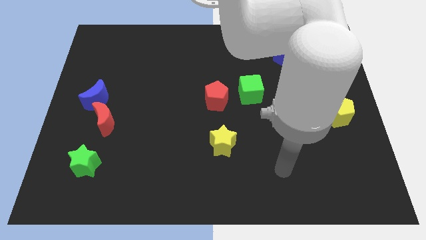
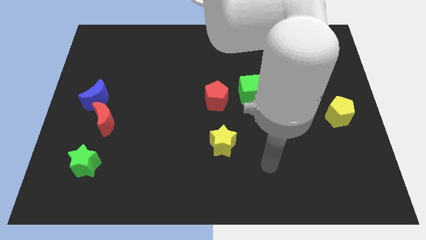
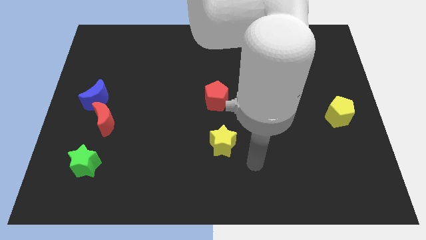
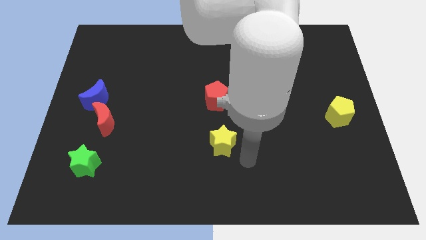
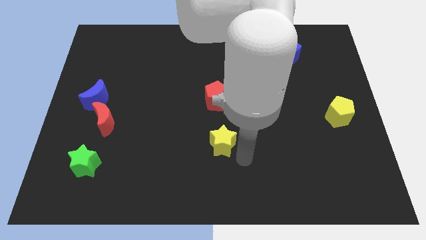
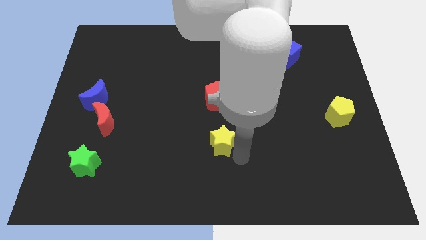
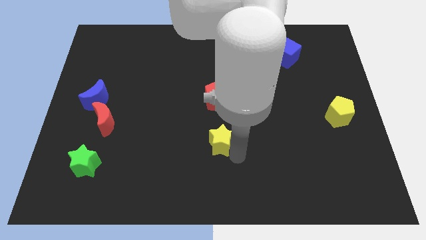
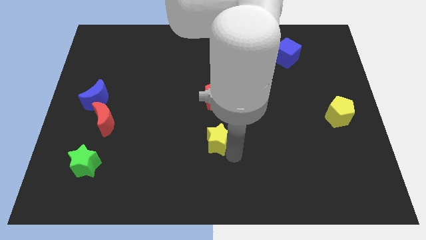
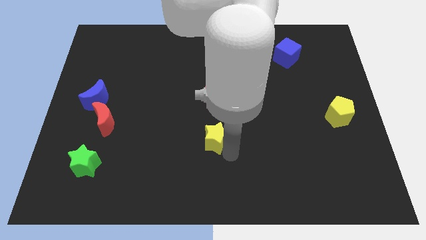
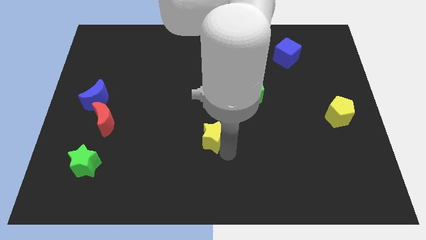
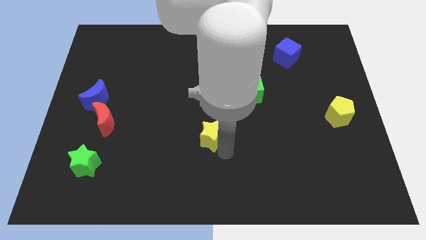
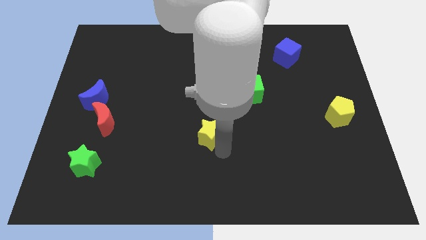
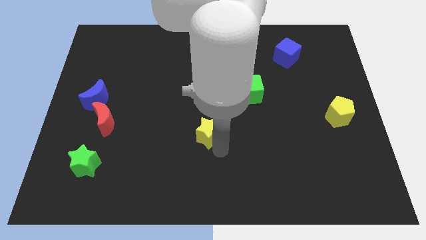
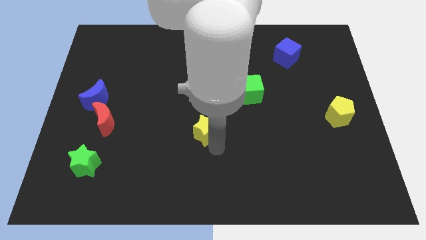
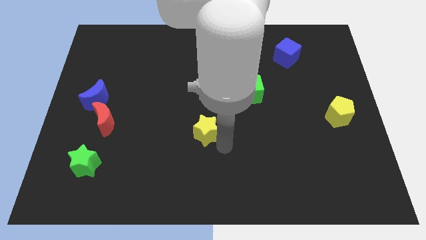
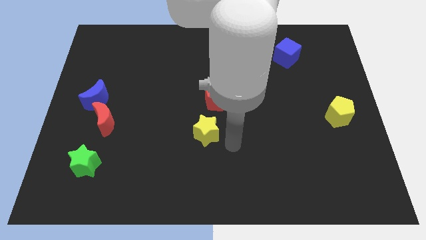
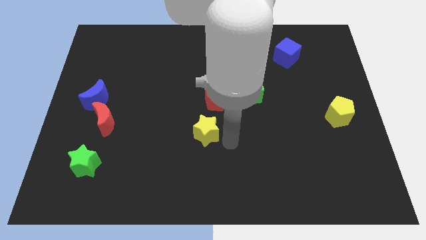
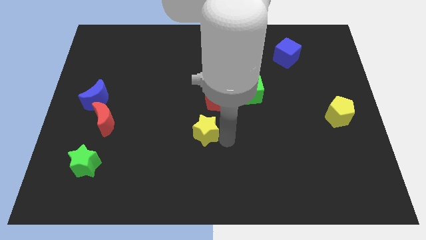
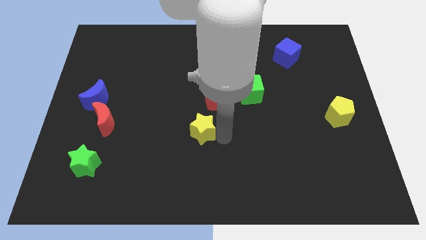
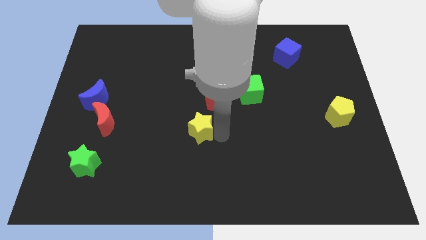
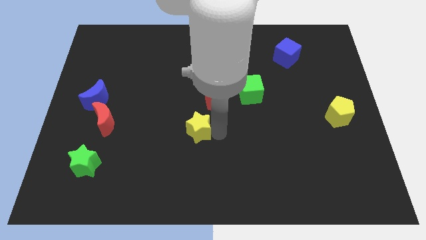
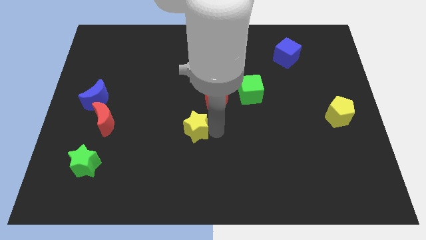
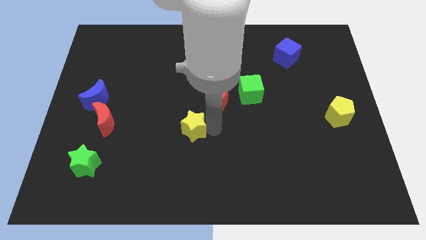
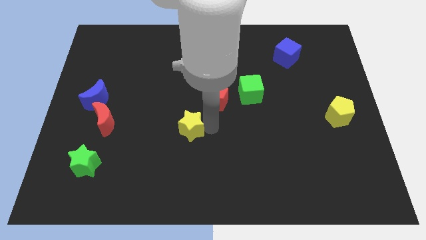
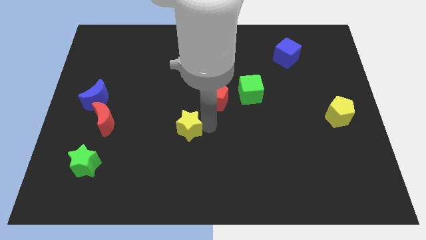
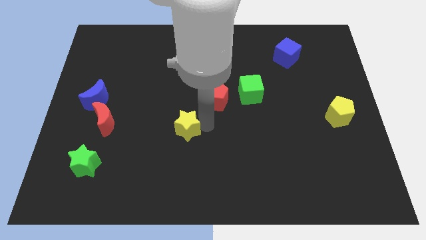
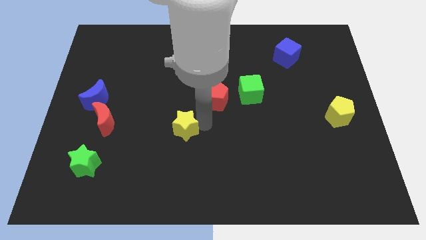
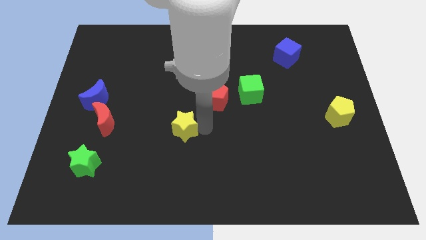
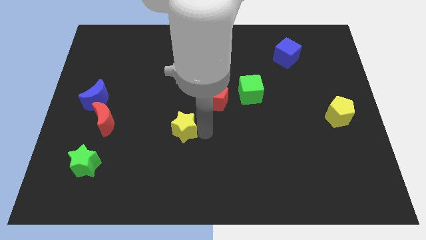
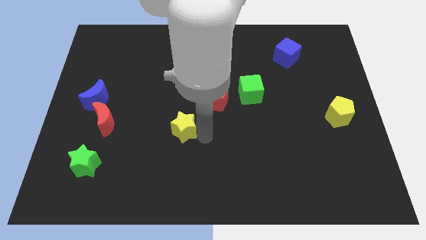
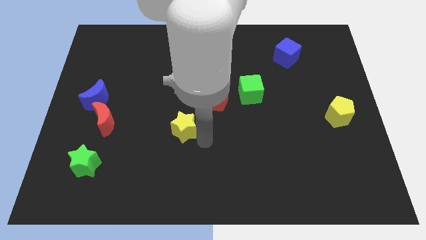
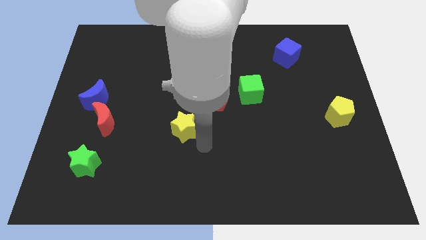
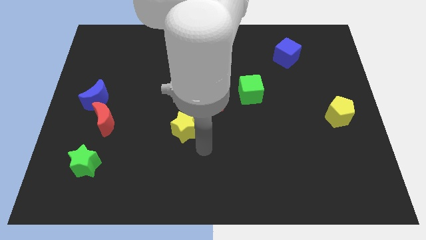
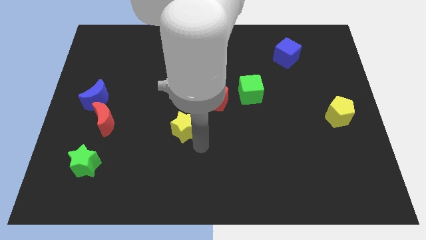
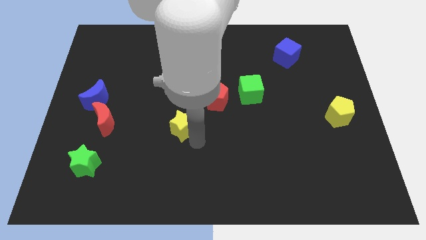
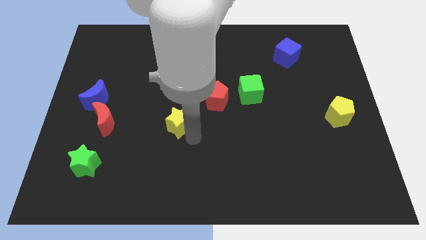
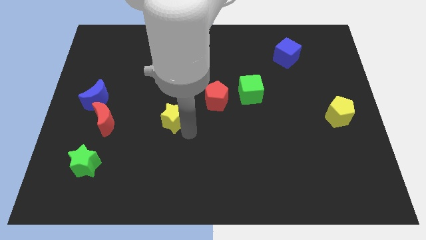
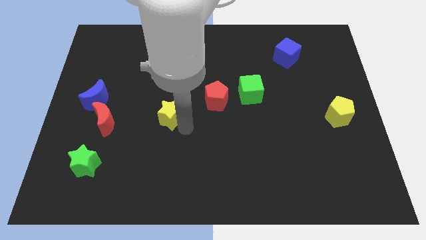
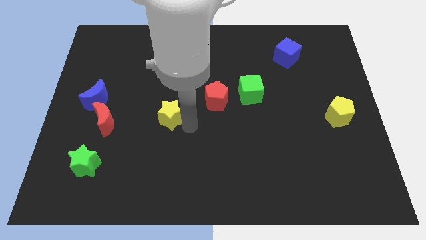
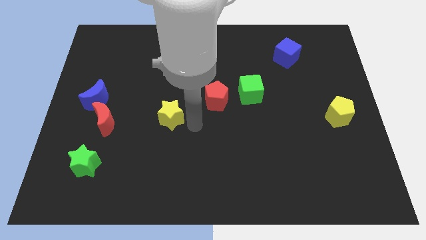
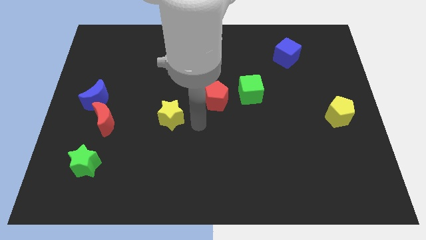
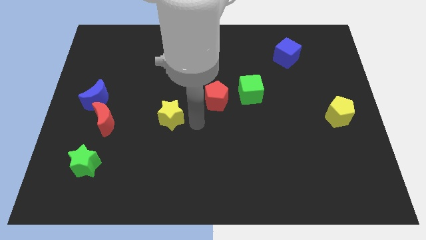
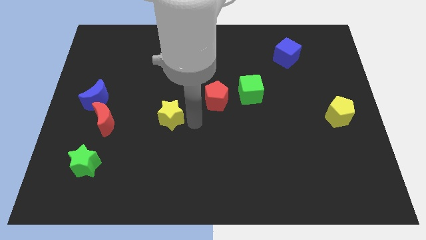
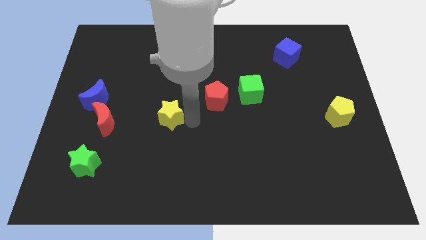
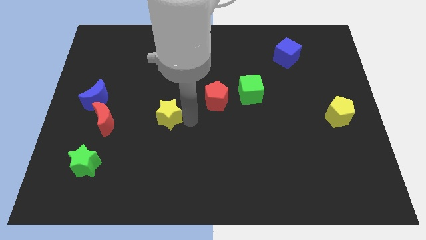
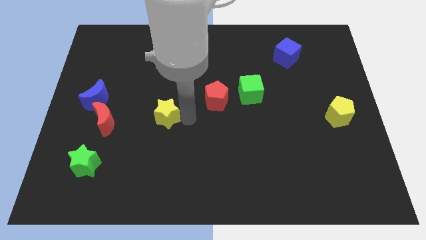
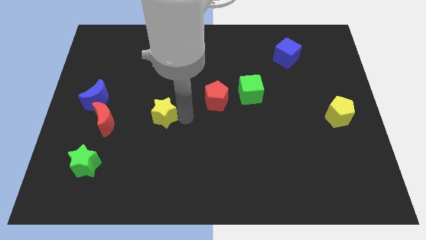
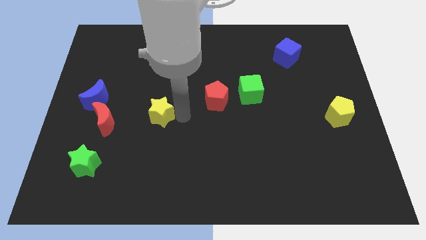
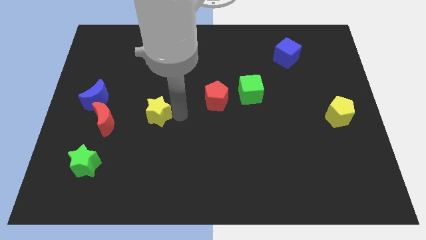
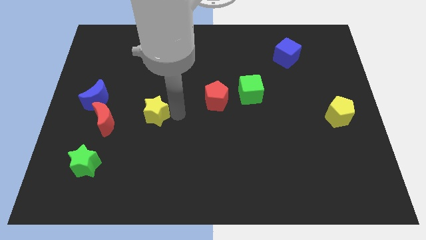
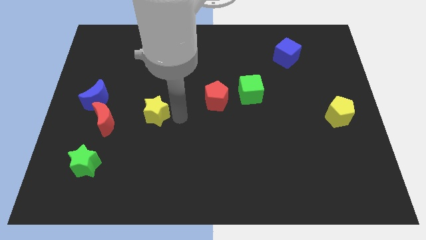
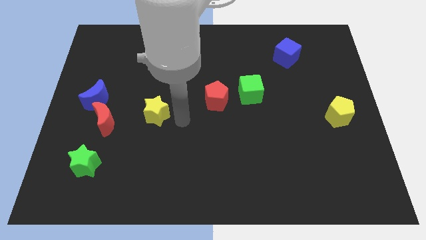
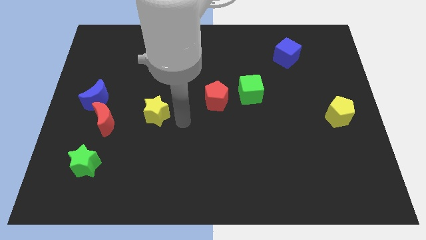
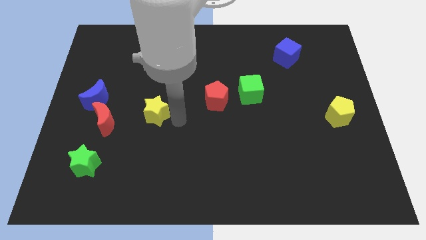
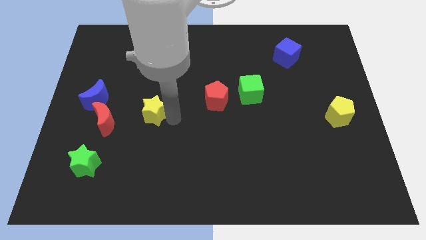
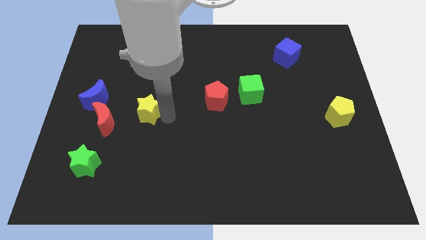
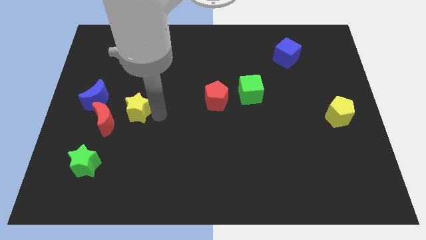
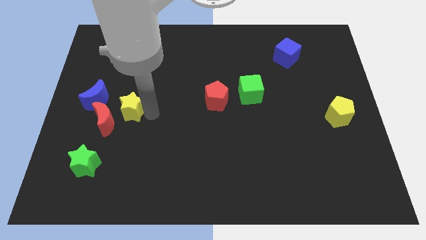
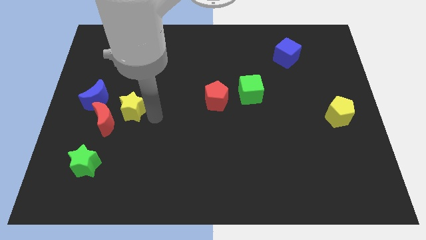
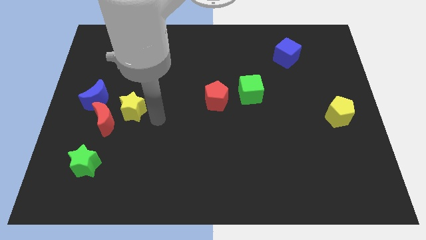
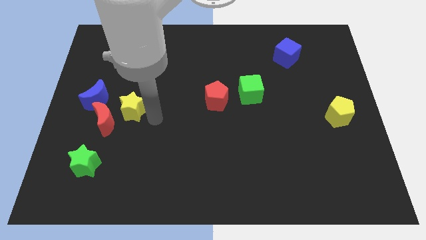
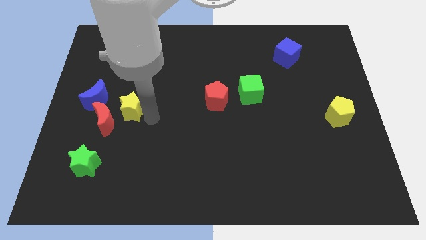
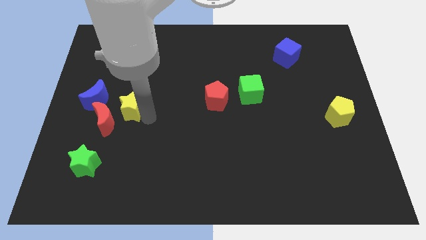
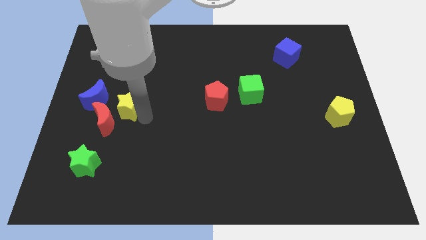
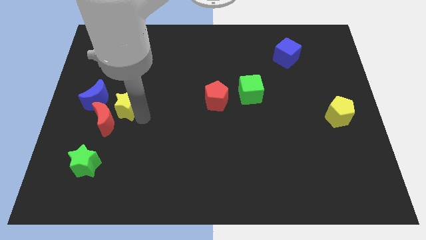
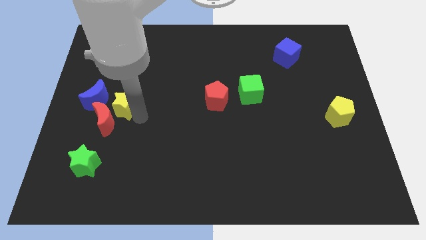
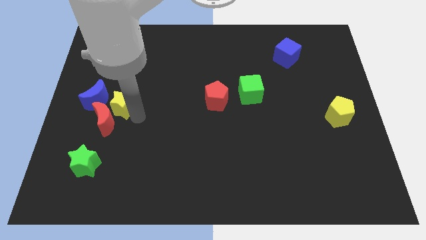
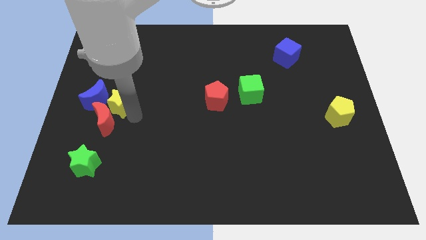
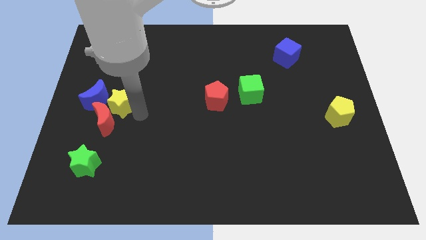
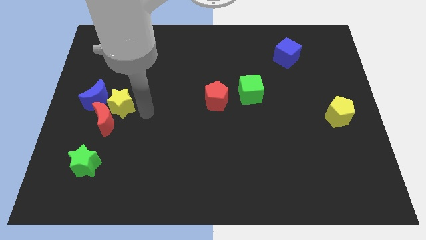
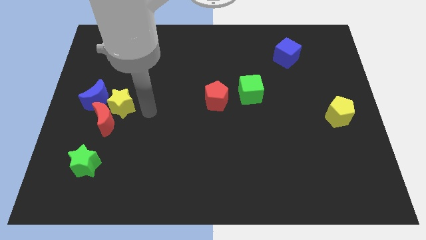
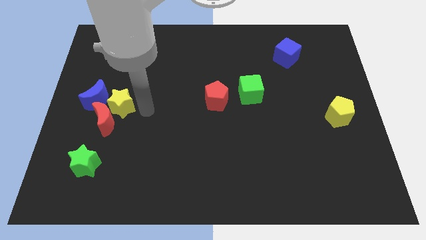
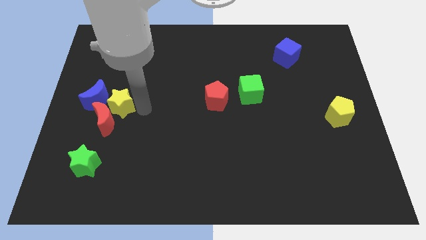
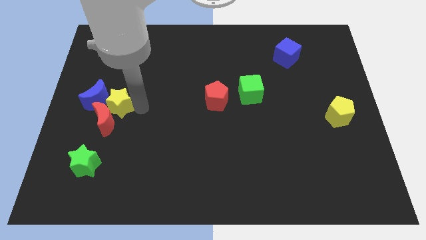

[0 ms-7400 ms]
push the yellow star close to the blue moon
